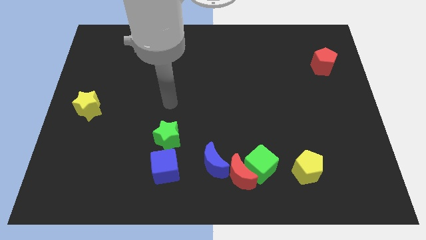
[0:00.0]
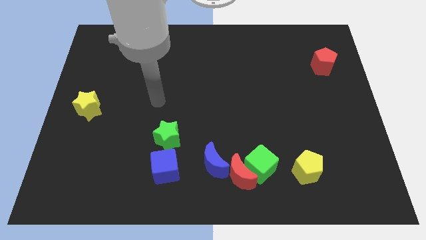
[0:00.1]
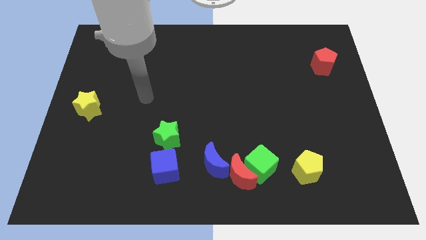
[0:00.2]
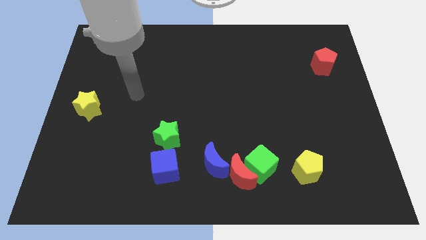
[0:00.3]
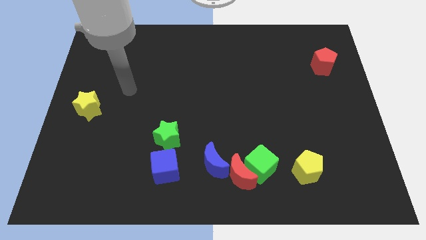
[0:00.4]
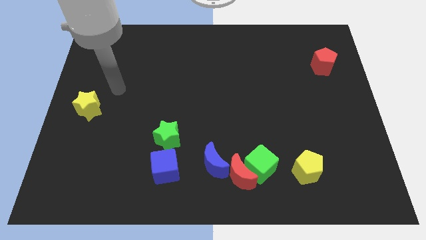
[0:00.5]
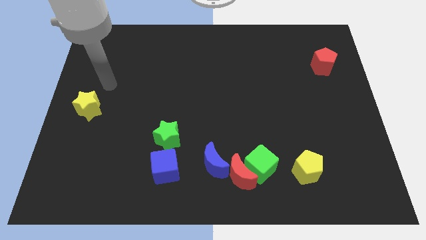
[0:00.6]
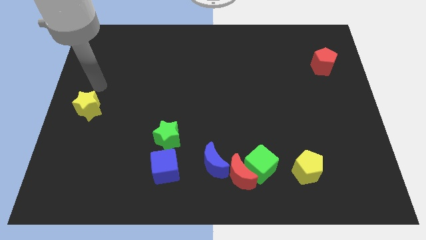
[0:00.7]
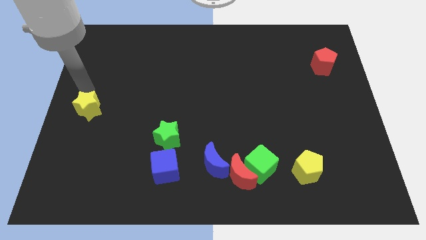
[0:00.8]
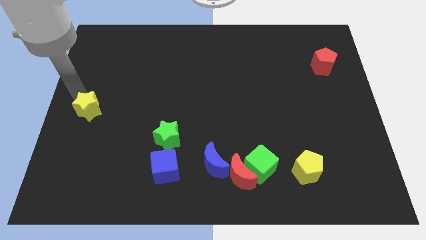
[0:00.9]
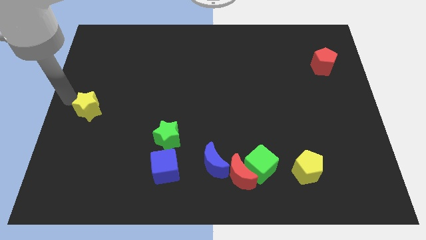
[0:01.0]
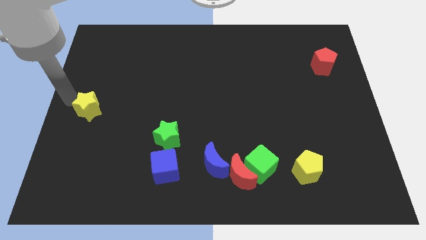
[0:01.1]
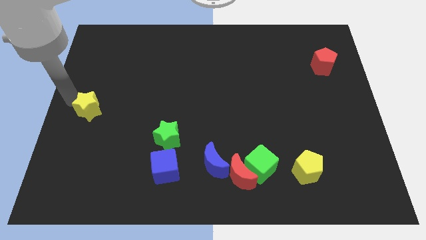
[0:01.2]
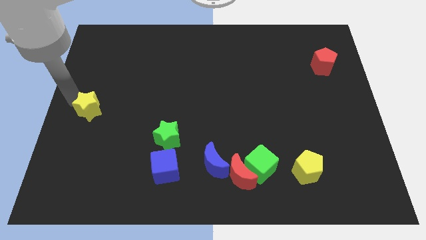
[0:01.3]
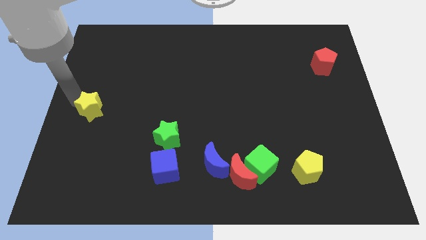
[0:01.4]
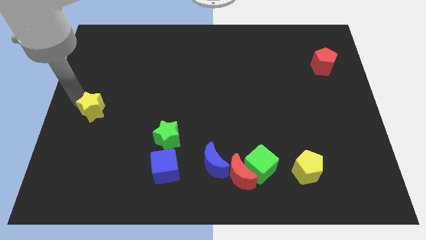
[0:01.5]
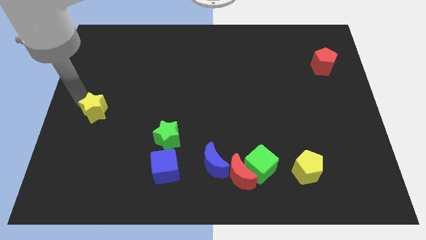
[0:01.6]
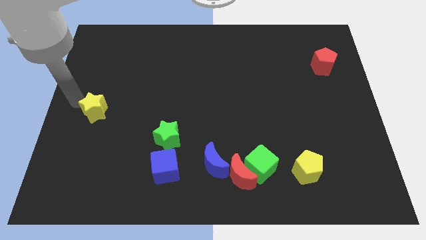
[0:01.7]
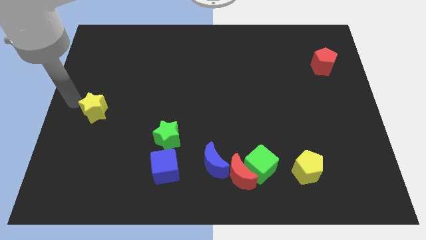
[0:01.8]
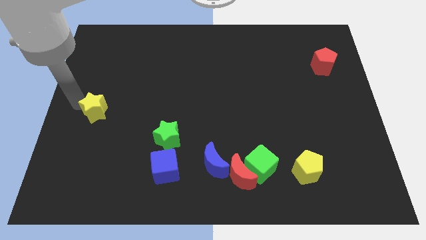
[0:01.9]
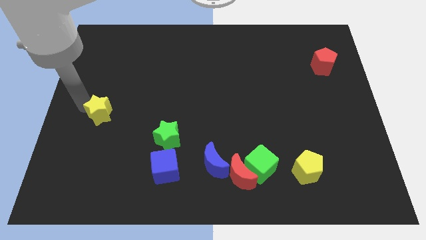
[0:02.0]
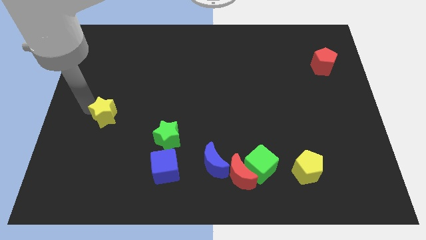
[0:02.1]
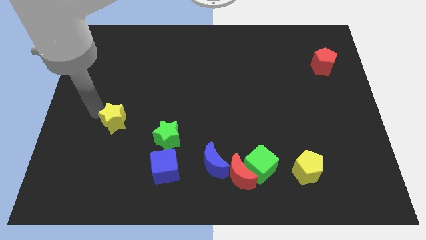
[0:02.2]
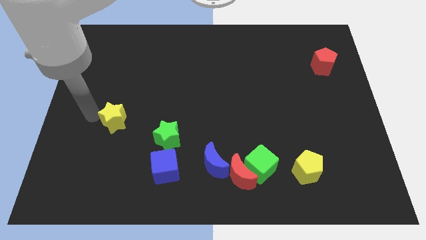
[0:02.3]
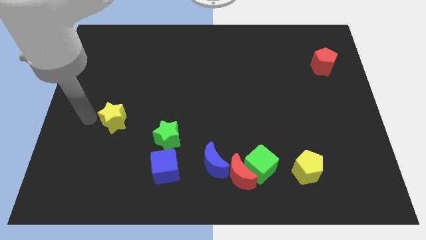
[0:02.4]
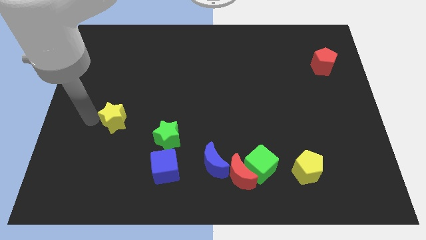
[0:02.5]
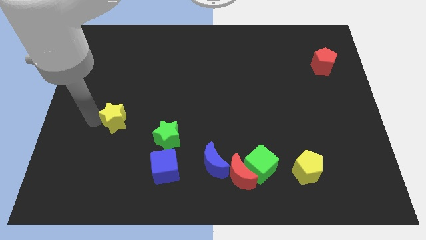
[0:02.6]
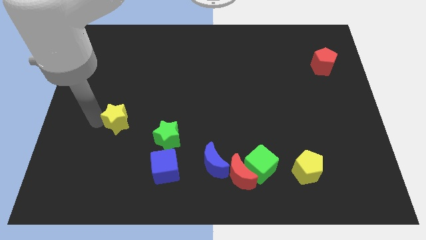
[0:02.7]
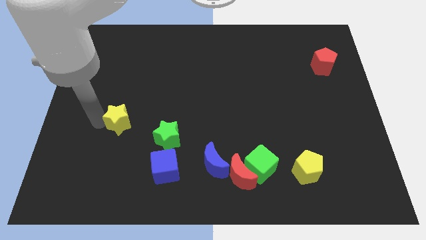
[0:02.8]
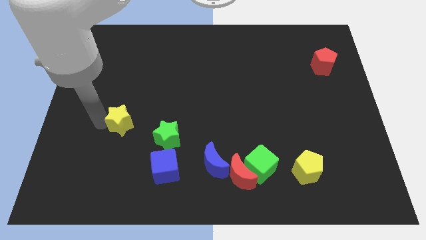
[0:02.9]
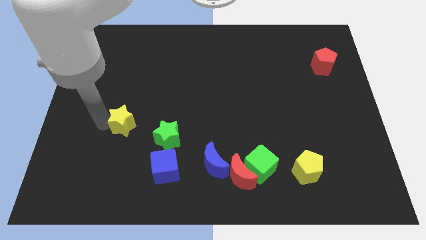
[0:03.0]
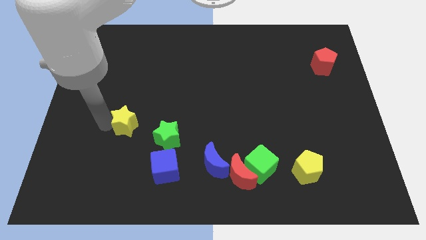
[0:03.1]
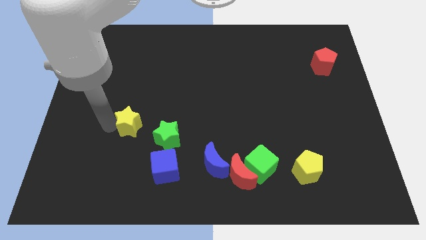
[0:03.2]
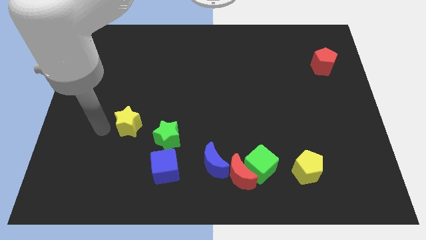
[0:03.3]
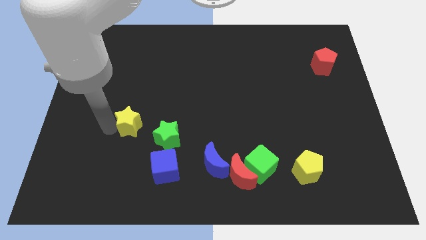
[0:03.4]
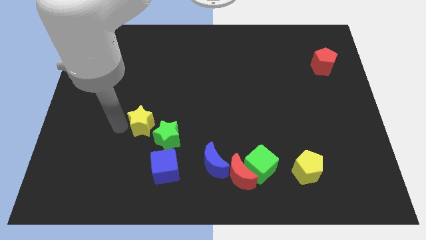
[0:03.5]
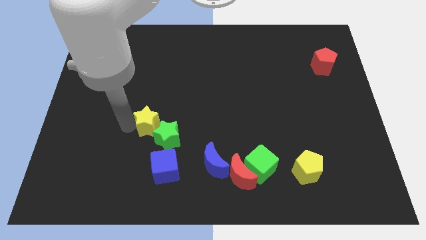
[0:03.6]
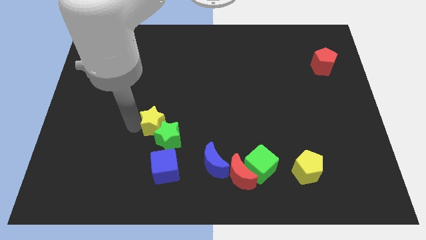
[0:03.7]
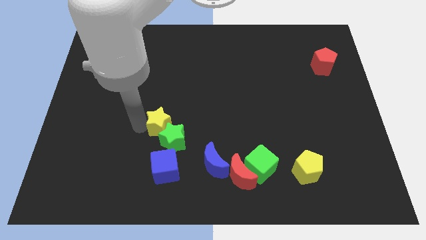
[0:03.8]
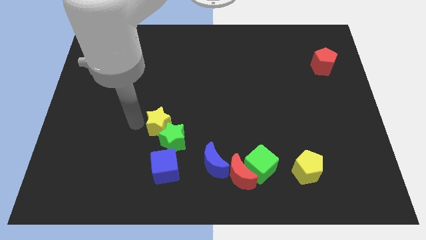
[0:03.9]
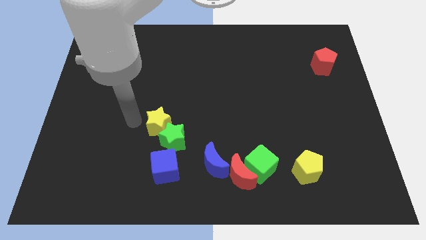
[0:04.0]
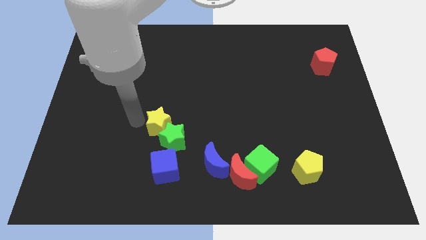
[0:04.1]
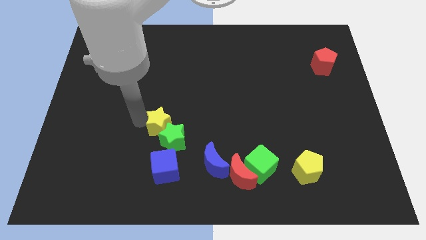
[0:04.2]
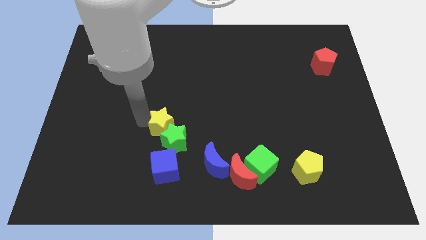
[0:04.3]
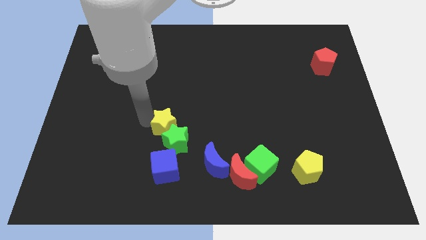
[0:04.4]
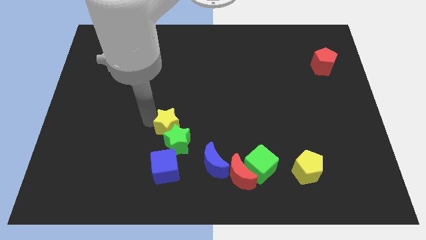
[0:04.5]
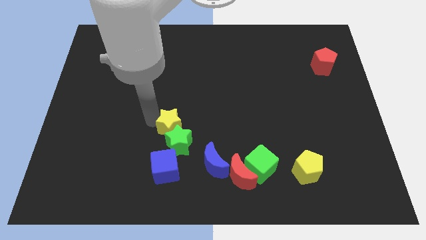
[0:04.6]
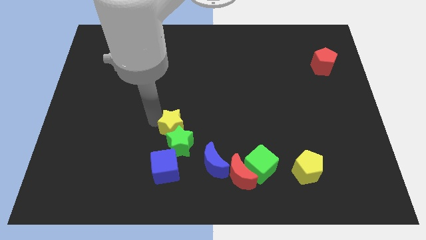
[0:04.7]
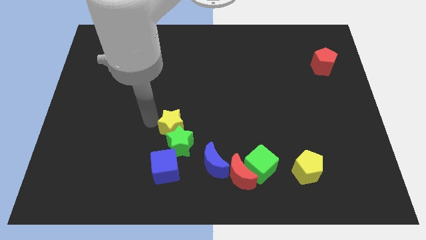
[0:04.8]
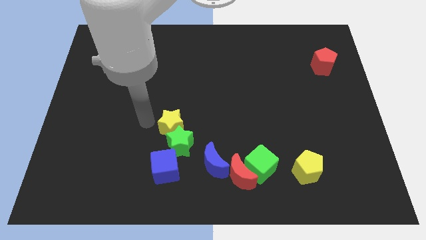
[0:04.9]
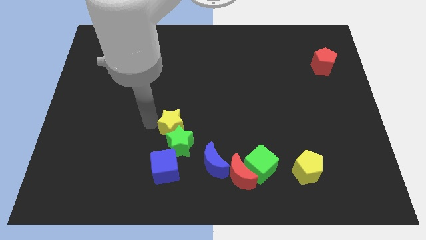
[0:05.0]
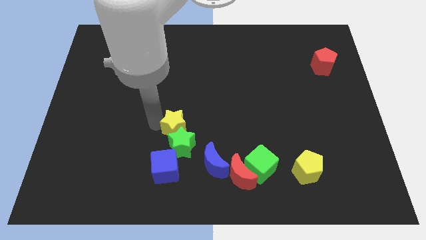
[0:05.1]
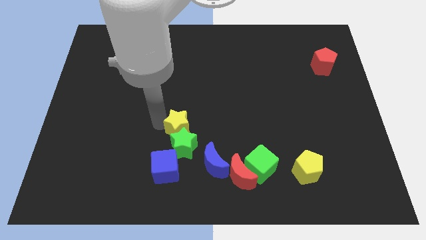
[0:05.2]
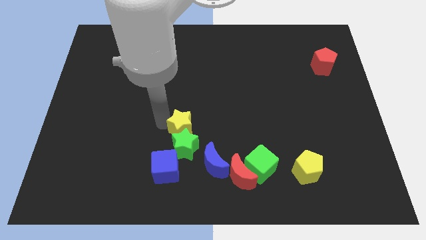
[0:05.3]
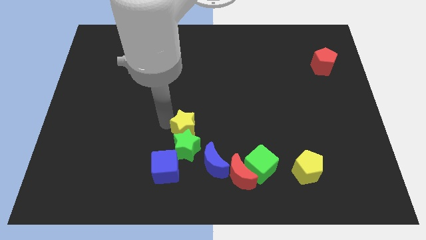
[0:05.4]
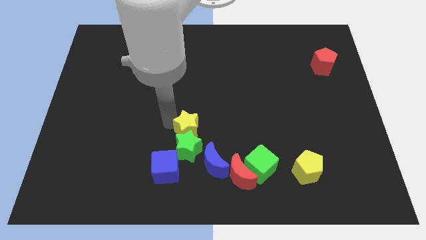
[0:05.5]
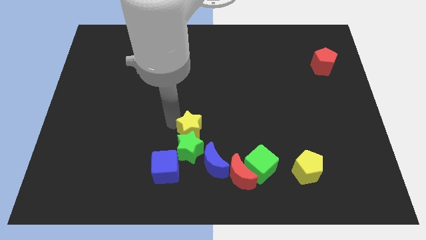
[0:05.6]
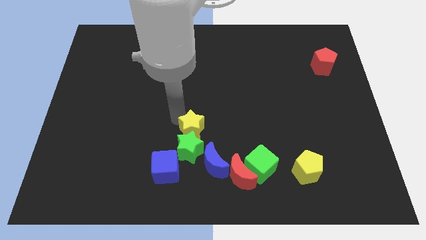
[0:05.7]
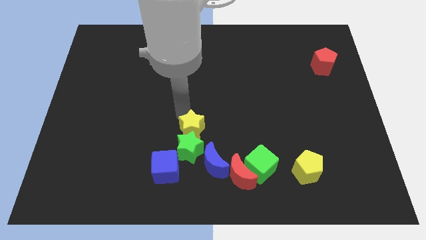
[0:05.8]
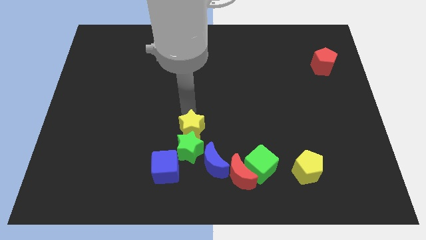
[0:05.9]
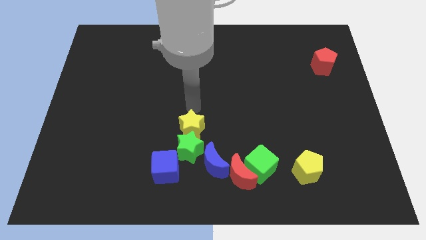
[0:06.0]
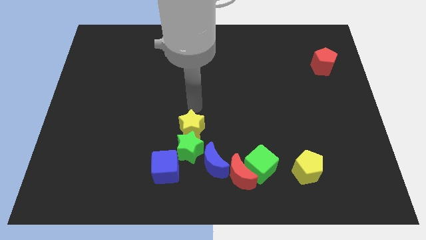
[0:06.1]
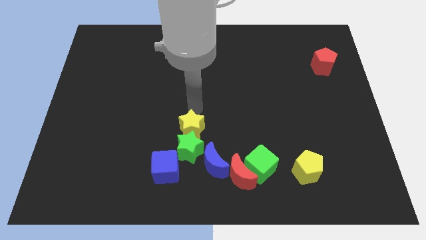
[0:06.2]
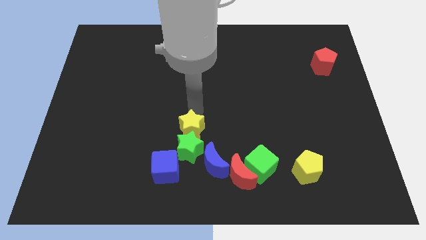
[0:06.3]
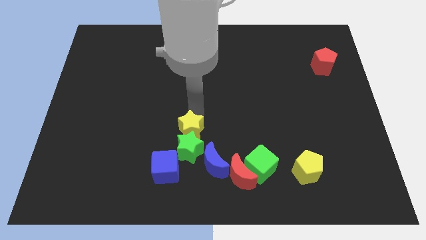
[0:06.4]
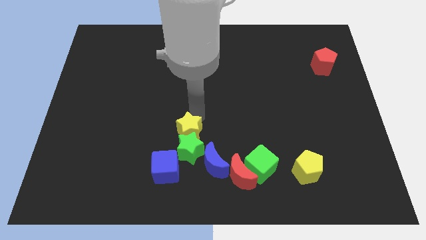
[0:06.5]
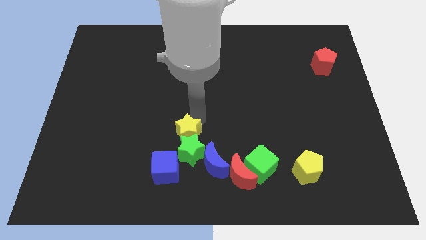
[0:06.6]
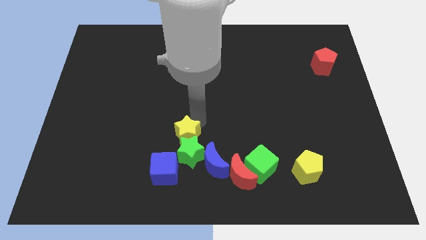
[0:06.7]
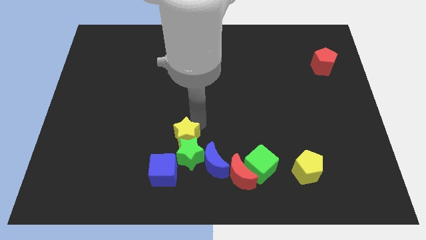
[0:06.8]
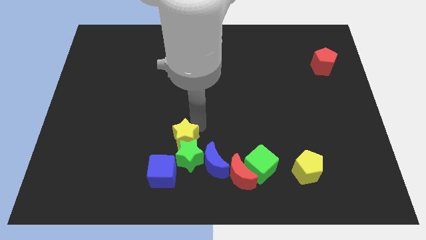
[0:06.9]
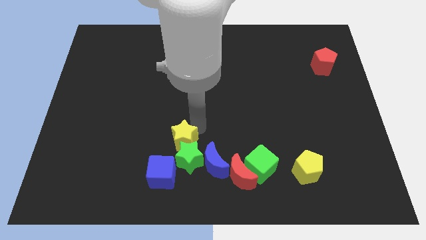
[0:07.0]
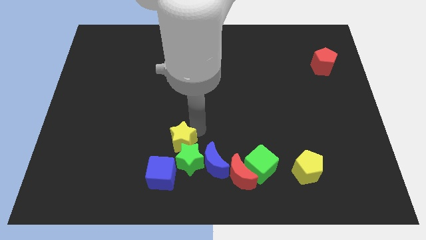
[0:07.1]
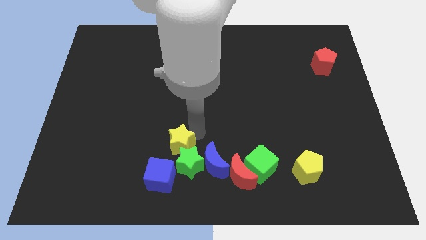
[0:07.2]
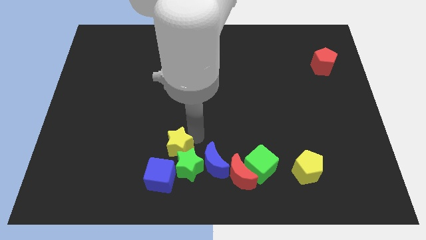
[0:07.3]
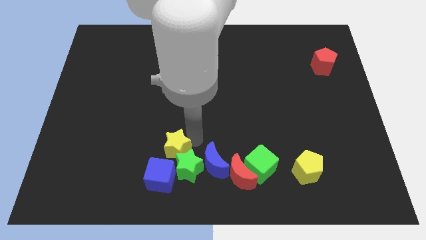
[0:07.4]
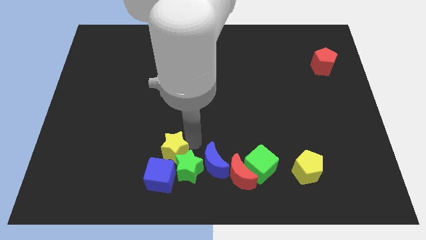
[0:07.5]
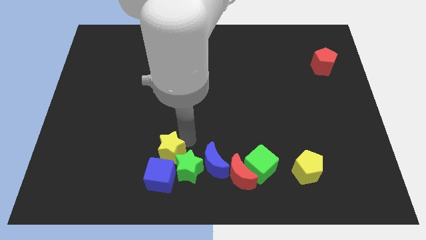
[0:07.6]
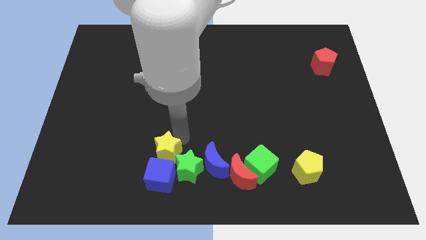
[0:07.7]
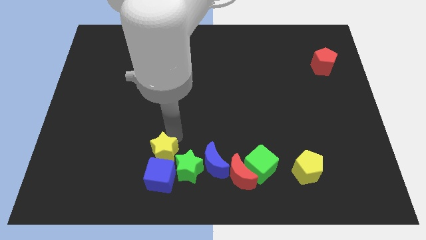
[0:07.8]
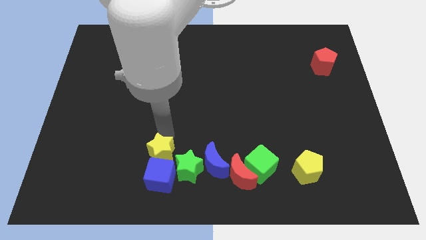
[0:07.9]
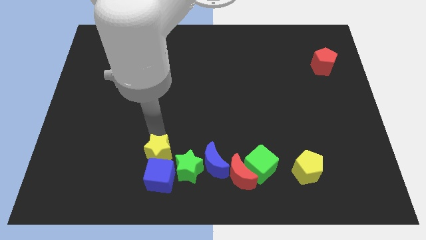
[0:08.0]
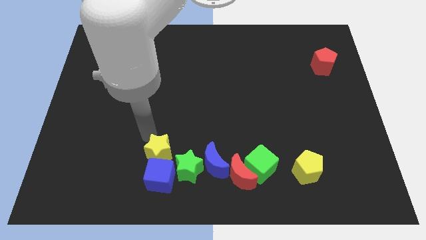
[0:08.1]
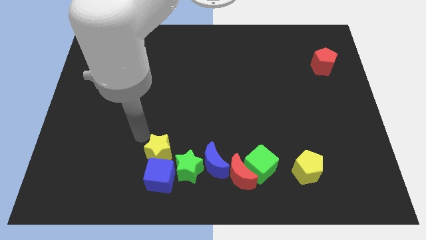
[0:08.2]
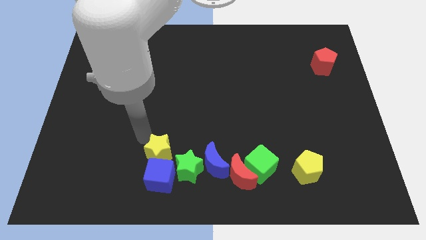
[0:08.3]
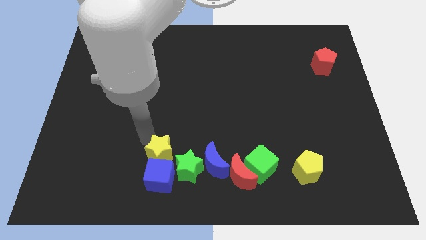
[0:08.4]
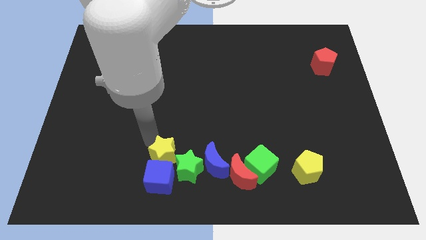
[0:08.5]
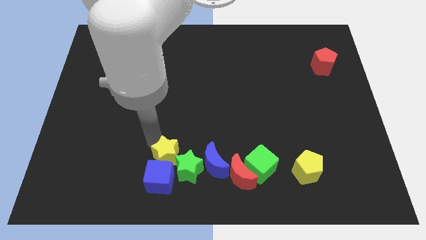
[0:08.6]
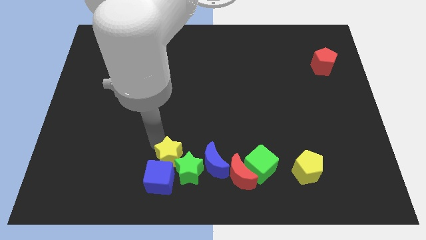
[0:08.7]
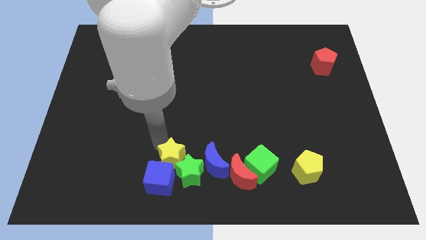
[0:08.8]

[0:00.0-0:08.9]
put the yellow star to the left side of the red moon
